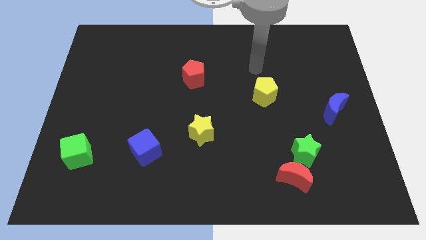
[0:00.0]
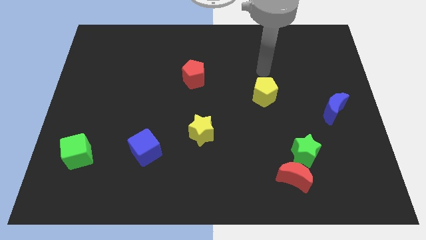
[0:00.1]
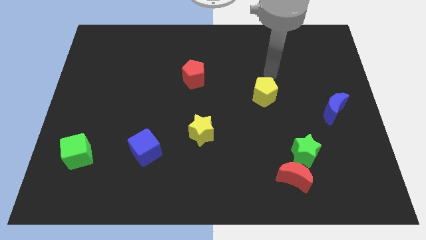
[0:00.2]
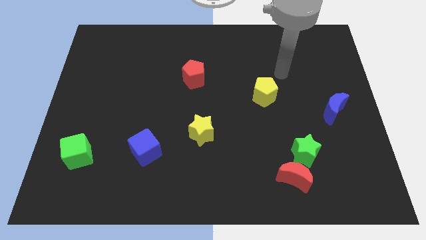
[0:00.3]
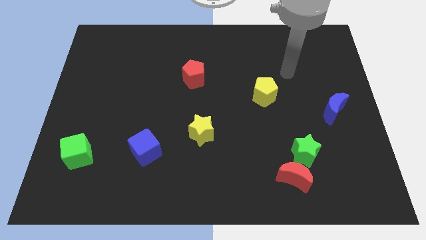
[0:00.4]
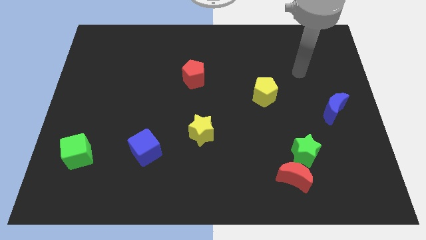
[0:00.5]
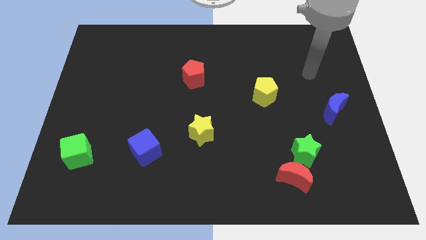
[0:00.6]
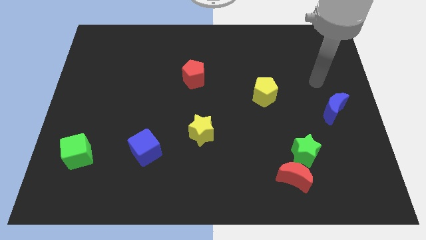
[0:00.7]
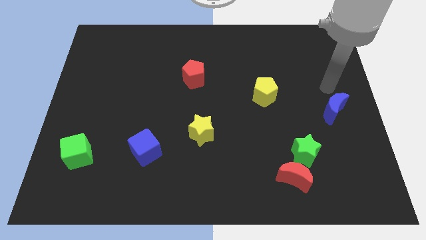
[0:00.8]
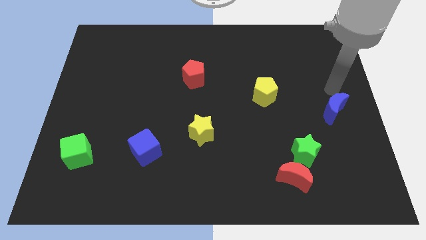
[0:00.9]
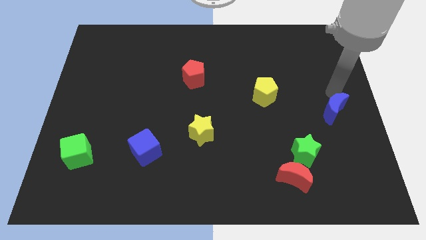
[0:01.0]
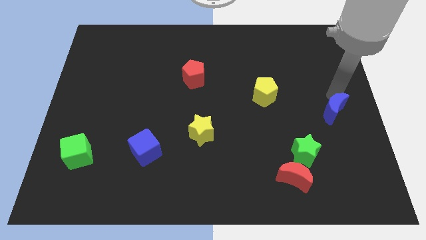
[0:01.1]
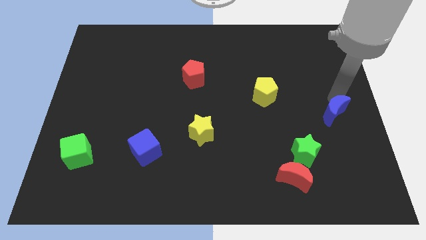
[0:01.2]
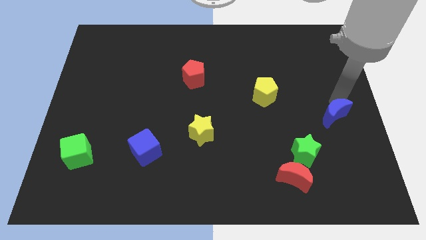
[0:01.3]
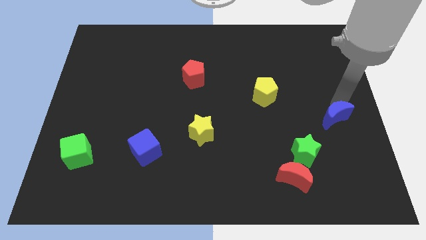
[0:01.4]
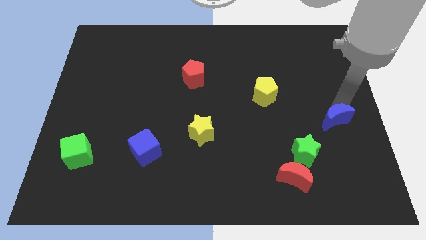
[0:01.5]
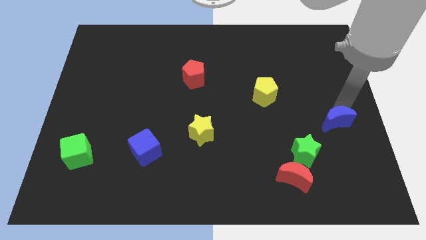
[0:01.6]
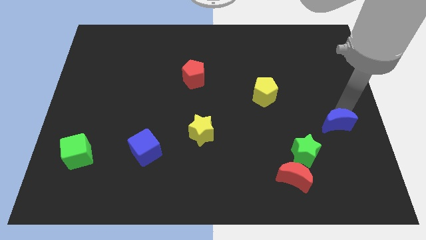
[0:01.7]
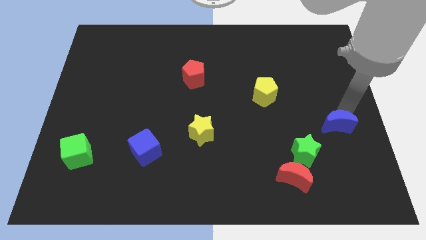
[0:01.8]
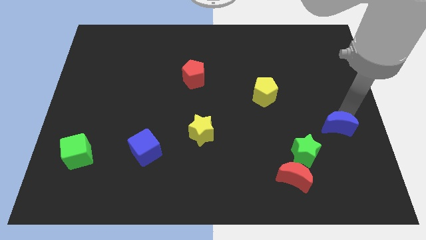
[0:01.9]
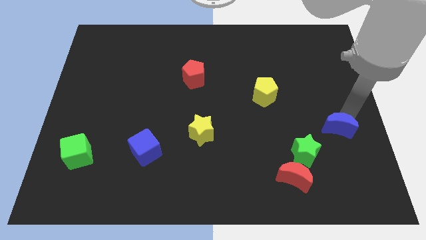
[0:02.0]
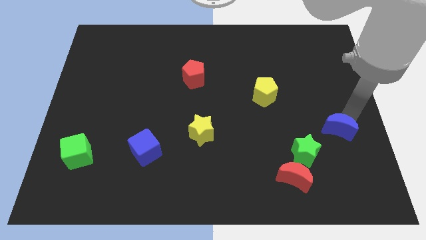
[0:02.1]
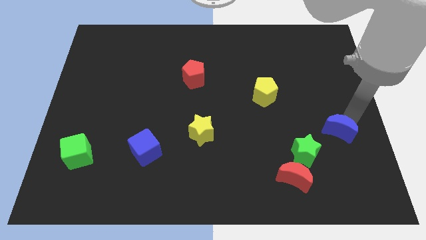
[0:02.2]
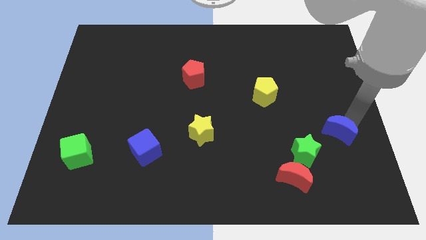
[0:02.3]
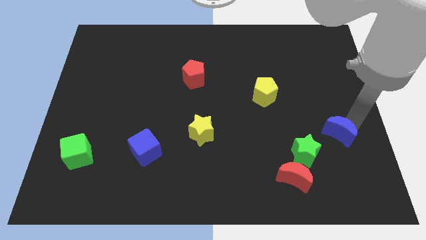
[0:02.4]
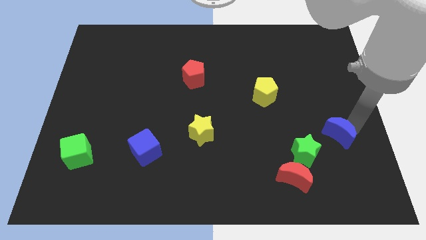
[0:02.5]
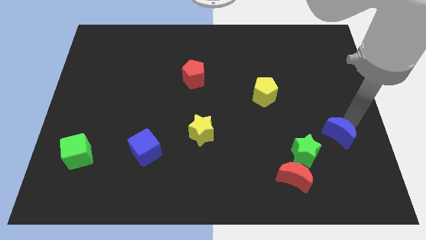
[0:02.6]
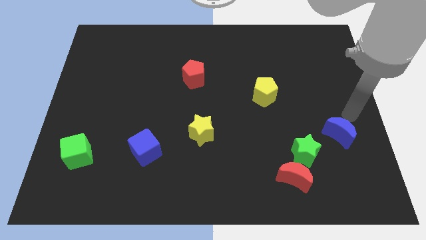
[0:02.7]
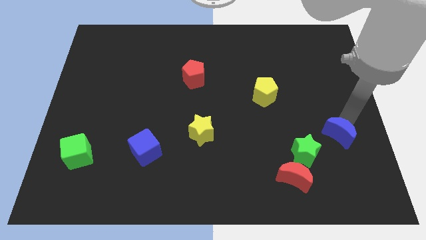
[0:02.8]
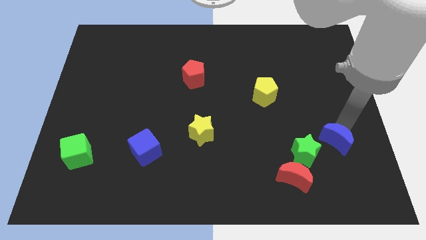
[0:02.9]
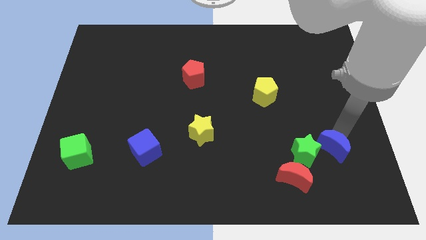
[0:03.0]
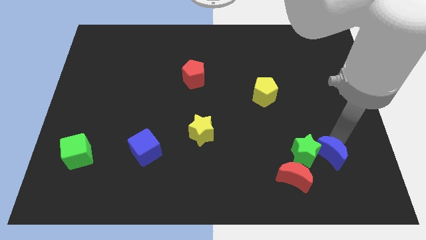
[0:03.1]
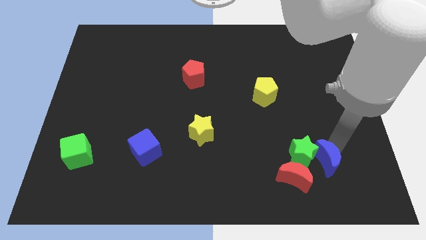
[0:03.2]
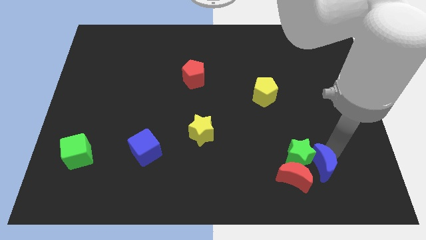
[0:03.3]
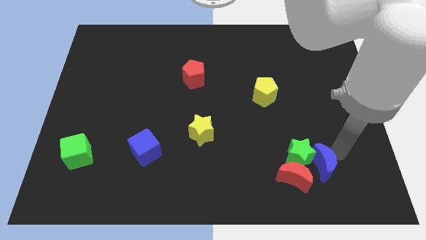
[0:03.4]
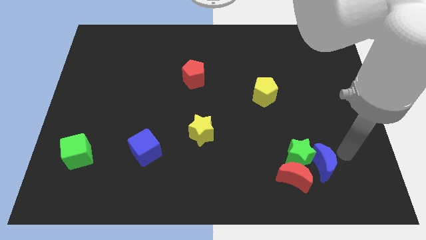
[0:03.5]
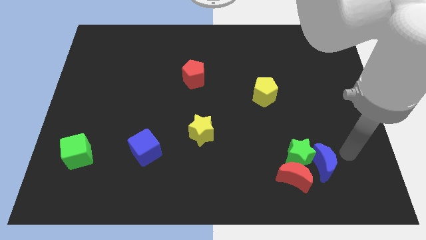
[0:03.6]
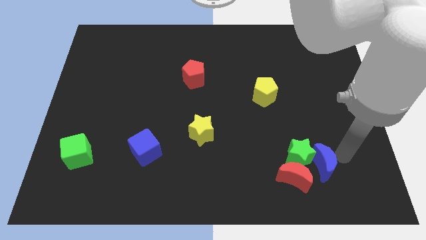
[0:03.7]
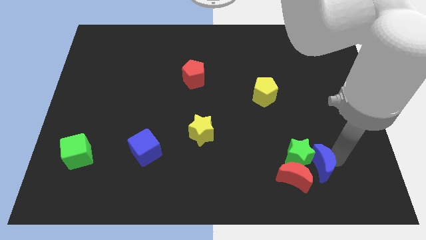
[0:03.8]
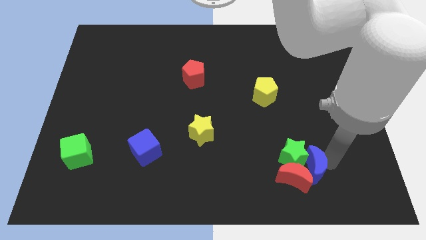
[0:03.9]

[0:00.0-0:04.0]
move the blue moon close to the red moon

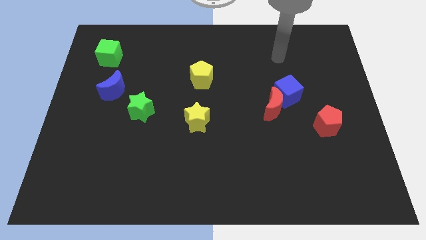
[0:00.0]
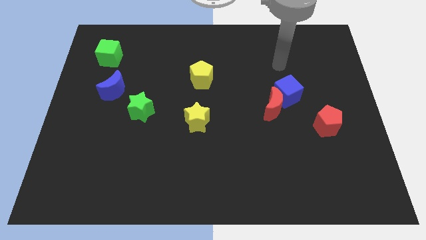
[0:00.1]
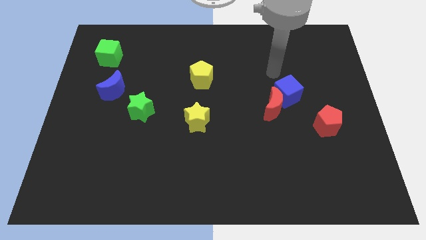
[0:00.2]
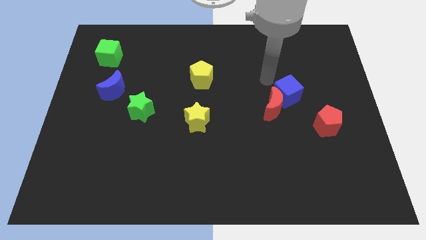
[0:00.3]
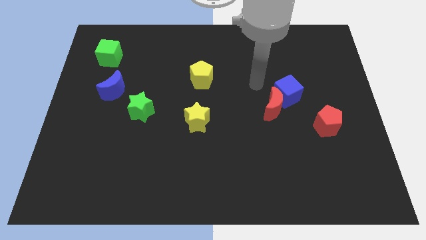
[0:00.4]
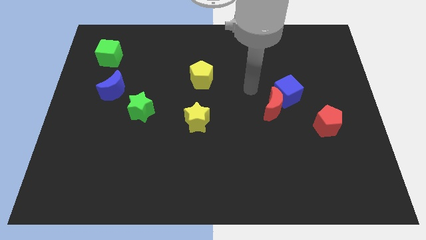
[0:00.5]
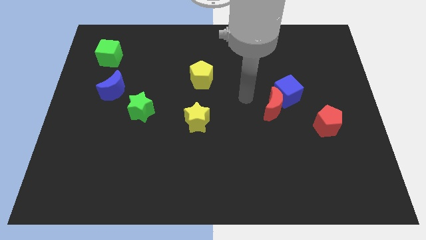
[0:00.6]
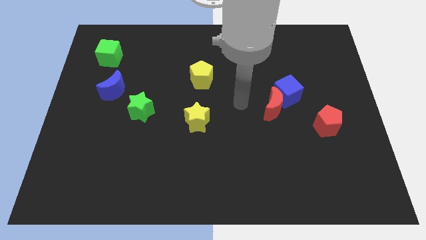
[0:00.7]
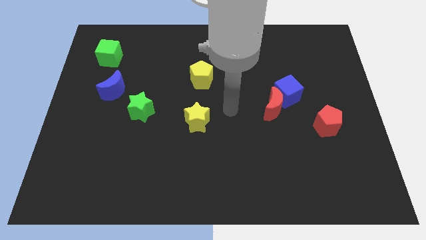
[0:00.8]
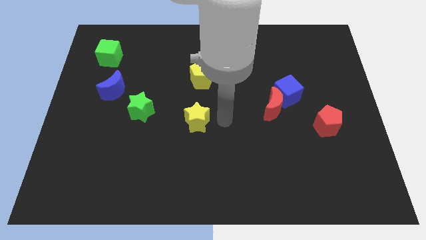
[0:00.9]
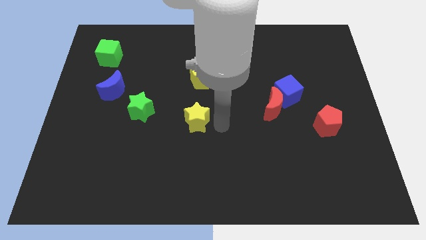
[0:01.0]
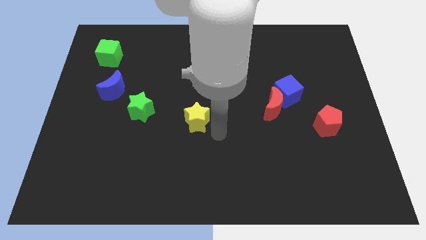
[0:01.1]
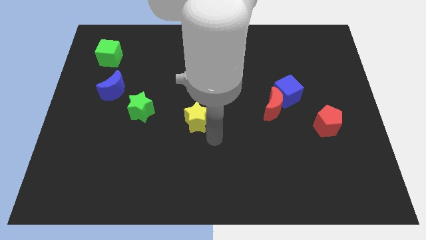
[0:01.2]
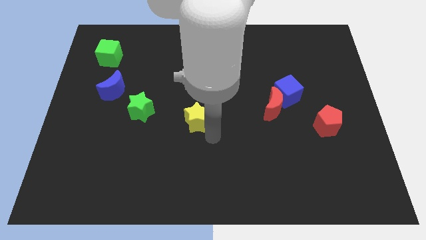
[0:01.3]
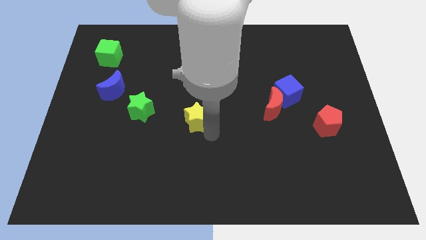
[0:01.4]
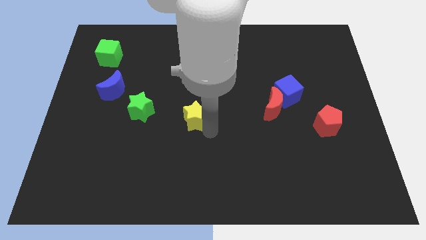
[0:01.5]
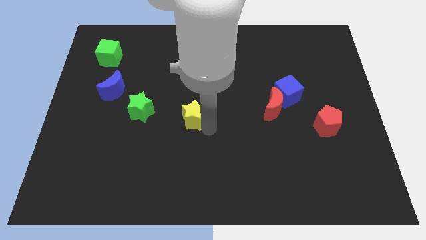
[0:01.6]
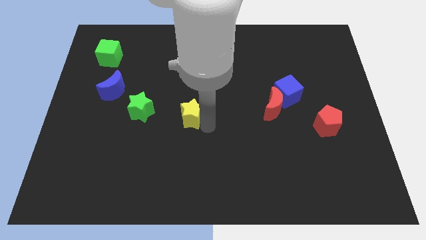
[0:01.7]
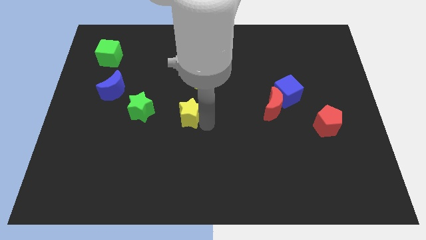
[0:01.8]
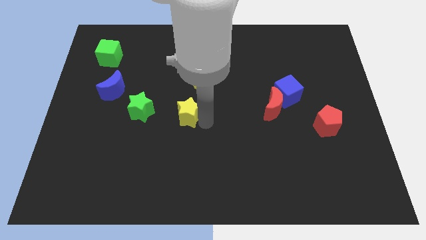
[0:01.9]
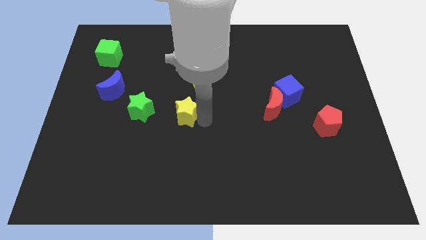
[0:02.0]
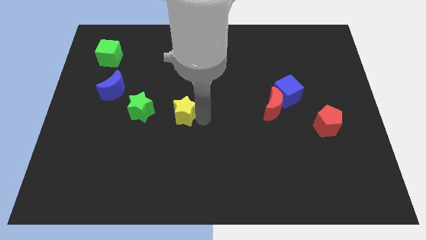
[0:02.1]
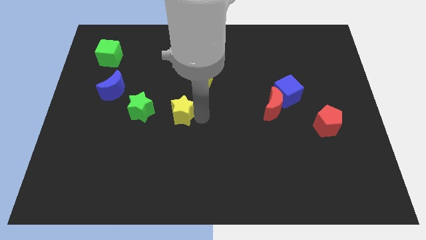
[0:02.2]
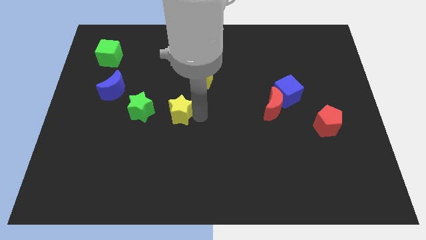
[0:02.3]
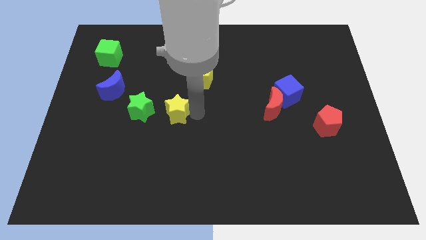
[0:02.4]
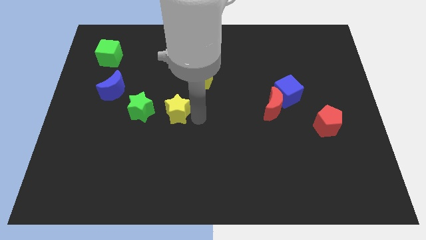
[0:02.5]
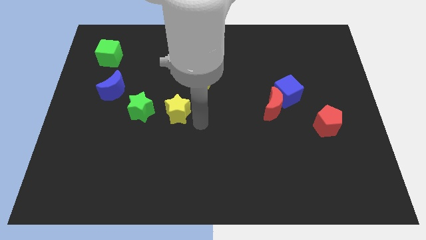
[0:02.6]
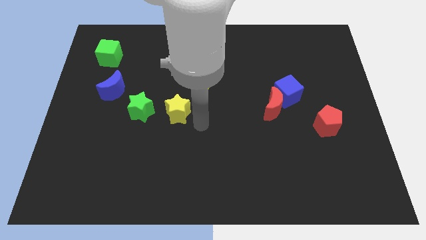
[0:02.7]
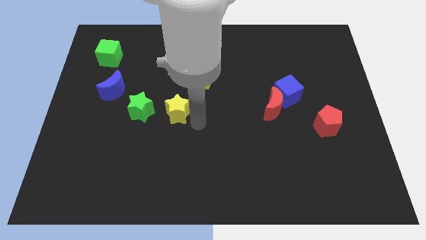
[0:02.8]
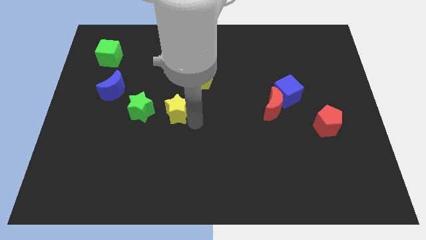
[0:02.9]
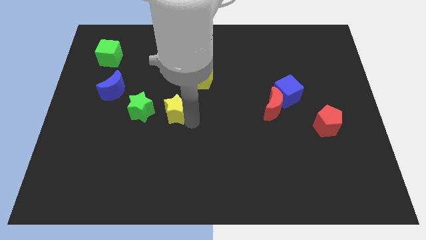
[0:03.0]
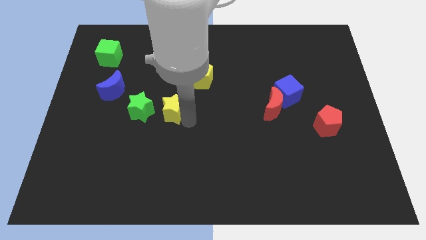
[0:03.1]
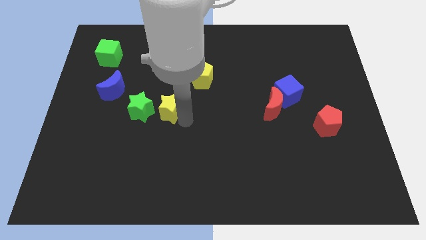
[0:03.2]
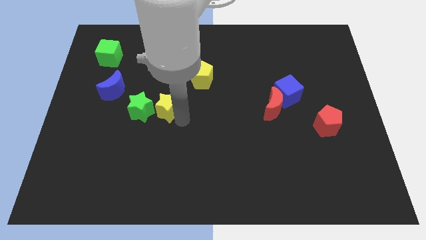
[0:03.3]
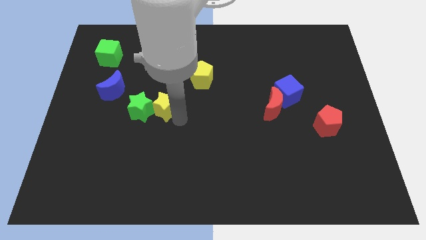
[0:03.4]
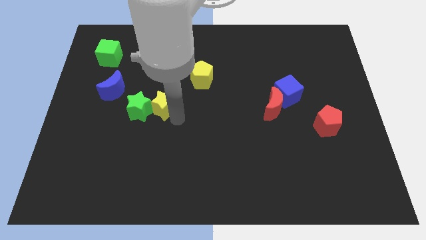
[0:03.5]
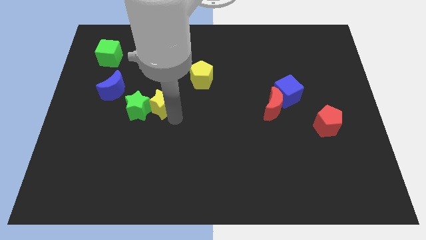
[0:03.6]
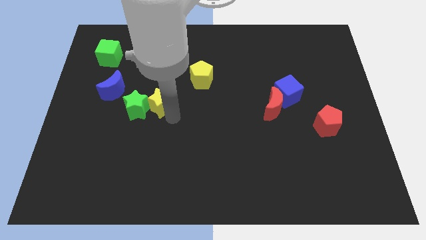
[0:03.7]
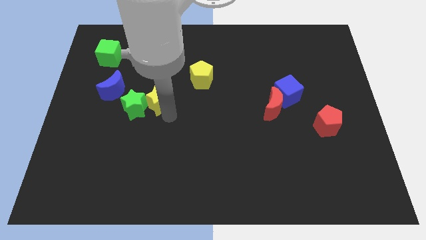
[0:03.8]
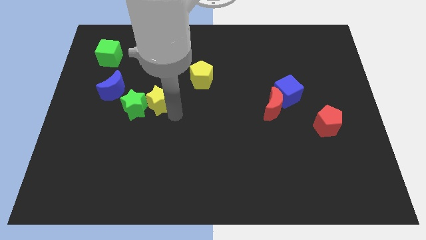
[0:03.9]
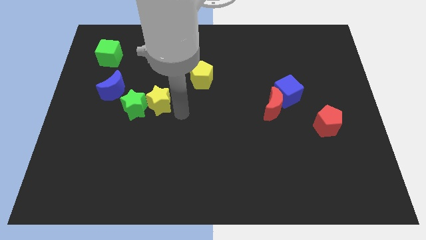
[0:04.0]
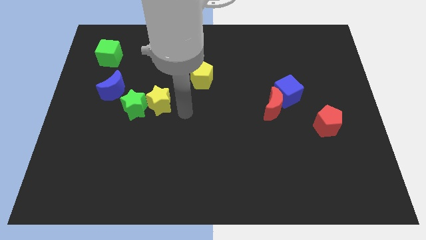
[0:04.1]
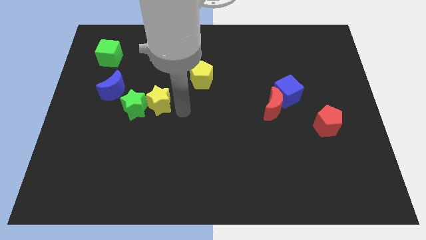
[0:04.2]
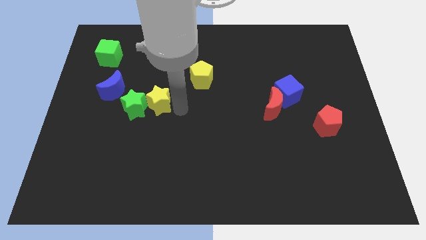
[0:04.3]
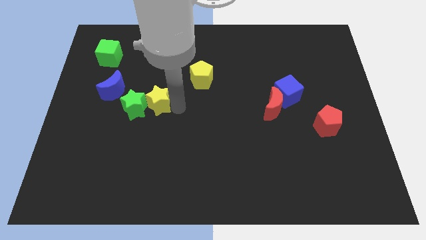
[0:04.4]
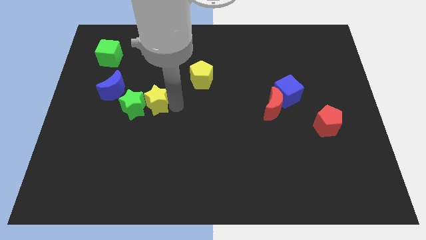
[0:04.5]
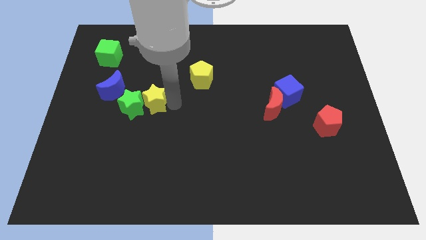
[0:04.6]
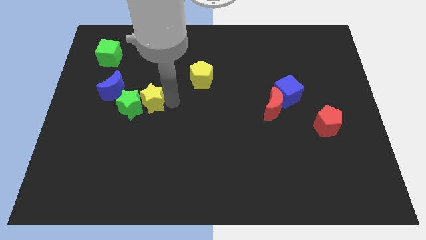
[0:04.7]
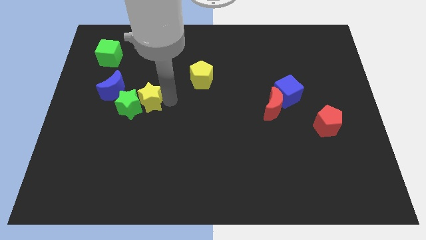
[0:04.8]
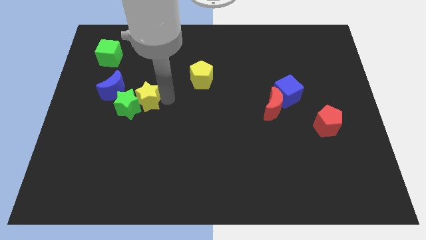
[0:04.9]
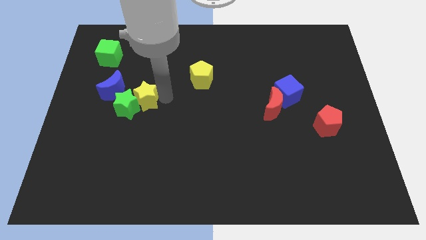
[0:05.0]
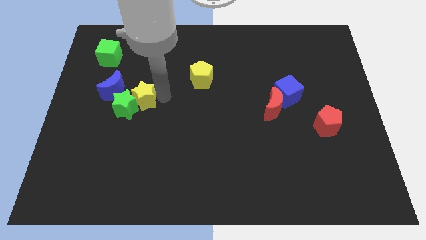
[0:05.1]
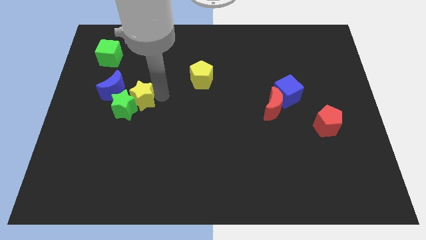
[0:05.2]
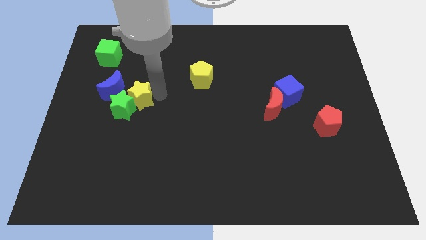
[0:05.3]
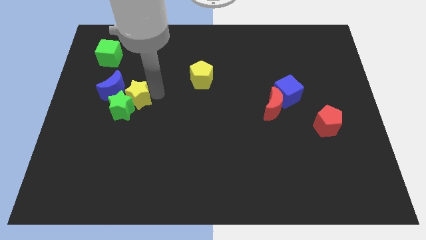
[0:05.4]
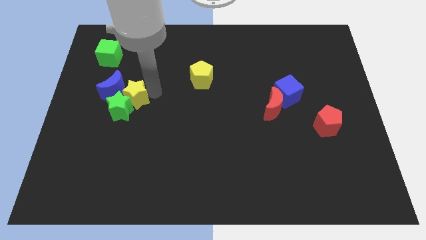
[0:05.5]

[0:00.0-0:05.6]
put the yellow star towards the blue moon
